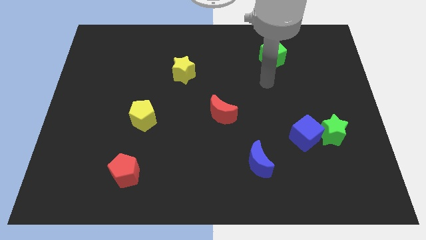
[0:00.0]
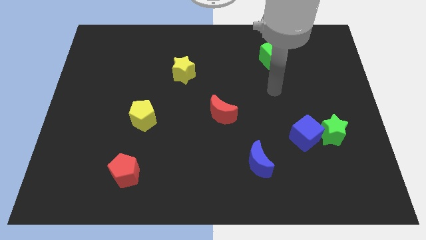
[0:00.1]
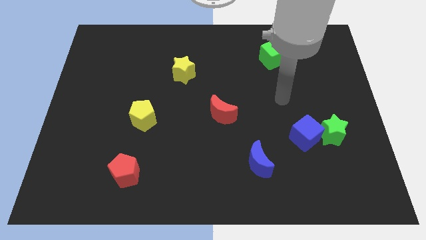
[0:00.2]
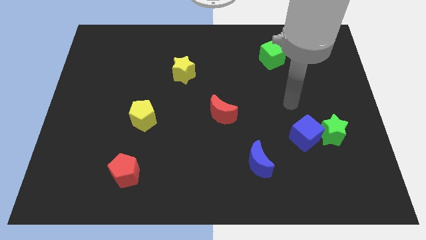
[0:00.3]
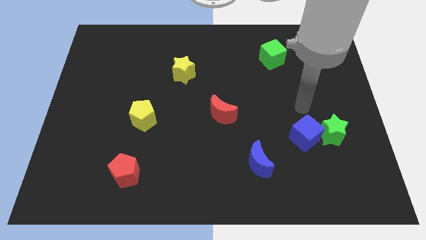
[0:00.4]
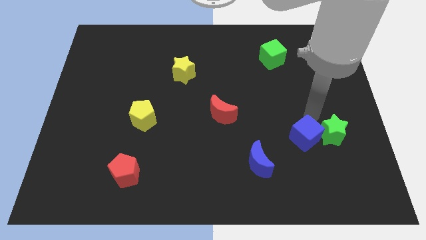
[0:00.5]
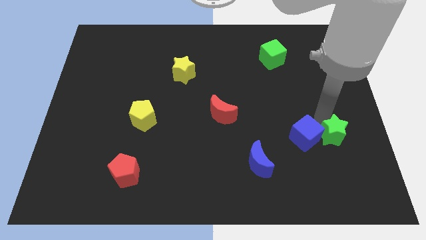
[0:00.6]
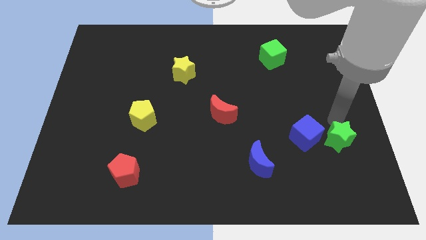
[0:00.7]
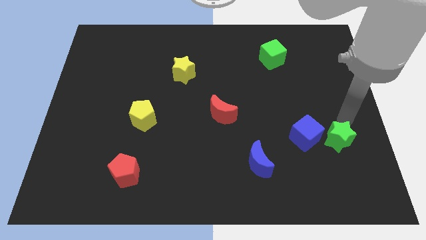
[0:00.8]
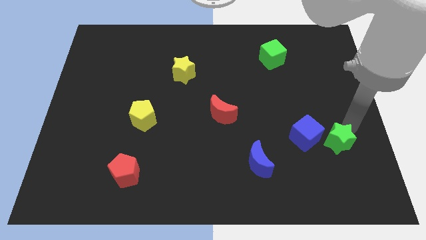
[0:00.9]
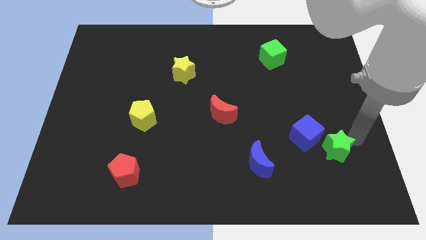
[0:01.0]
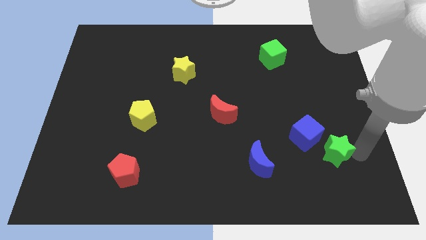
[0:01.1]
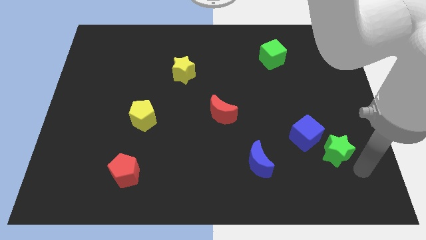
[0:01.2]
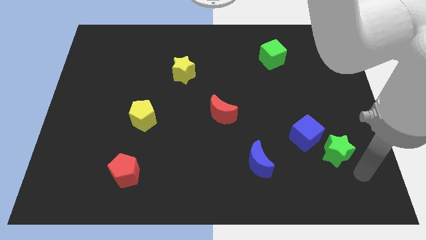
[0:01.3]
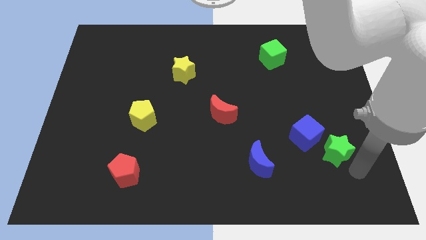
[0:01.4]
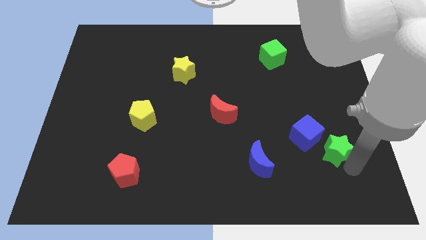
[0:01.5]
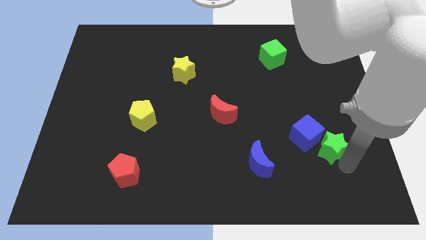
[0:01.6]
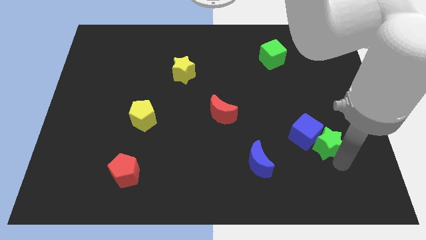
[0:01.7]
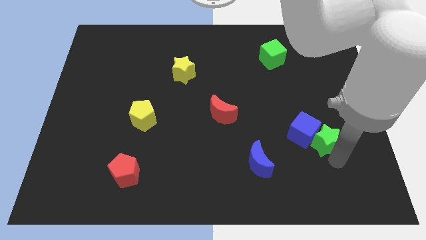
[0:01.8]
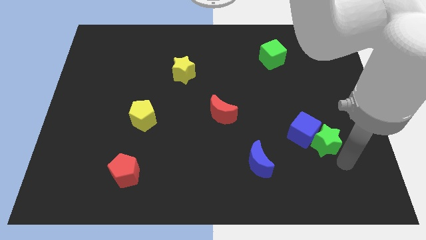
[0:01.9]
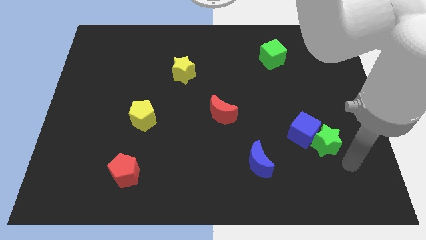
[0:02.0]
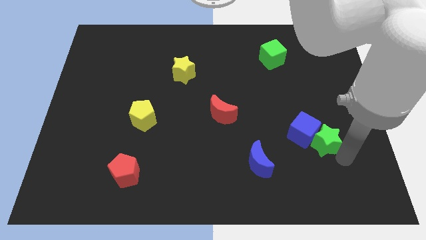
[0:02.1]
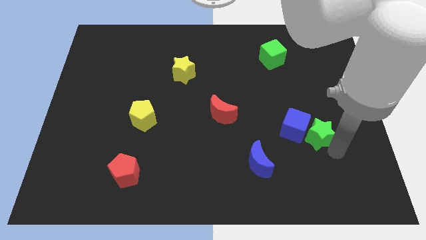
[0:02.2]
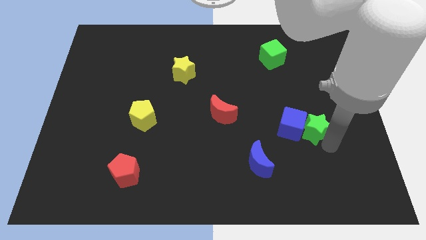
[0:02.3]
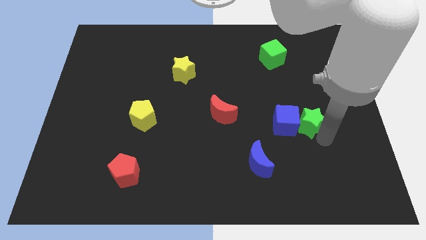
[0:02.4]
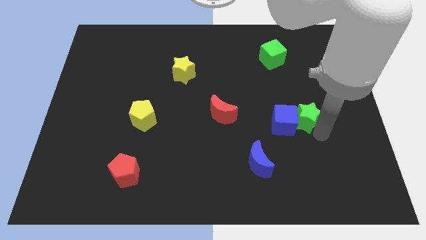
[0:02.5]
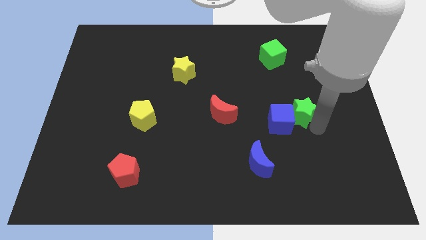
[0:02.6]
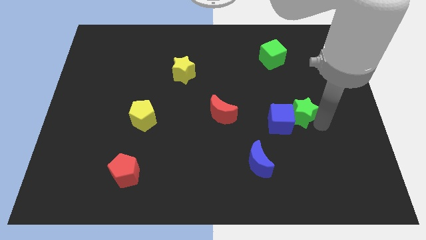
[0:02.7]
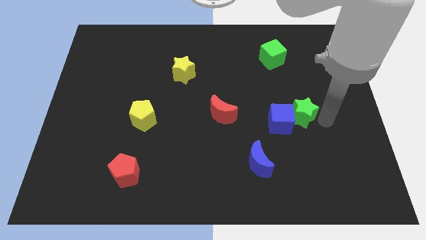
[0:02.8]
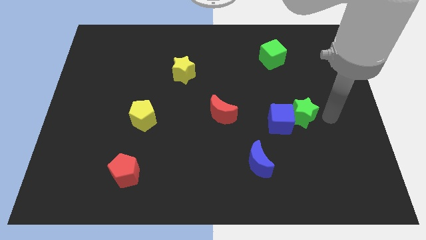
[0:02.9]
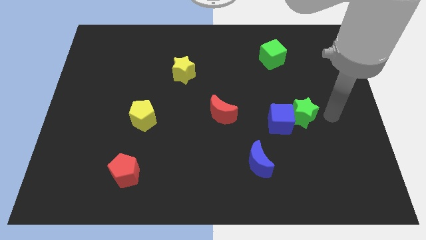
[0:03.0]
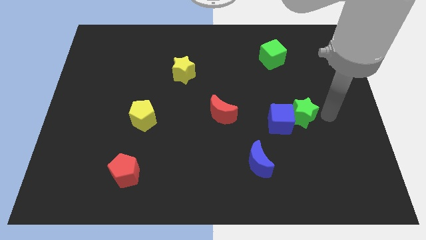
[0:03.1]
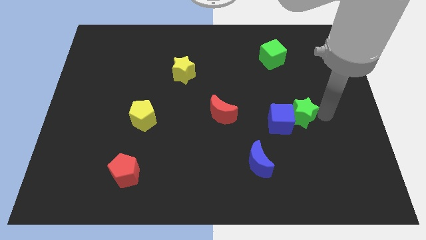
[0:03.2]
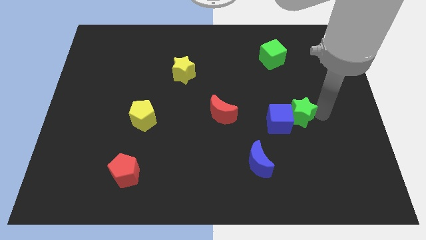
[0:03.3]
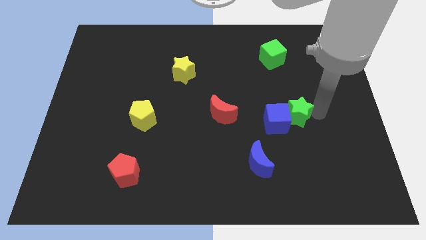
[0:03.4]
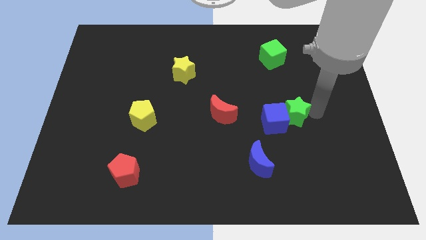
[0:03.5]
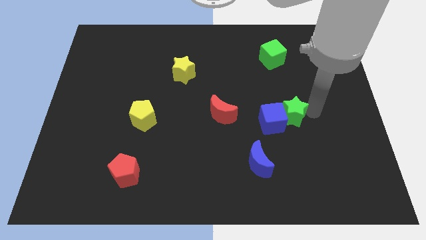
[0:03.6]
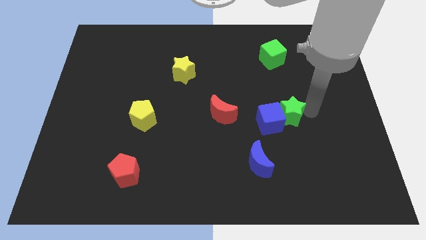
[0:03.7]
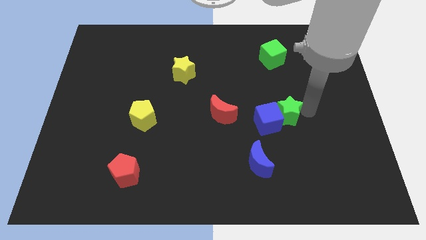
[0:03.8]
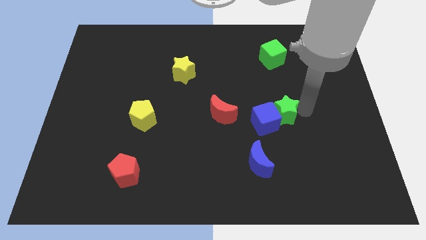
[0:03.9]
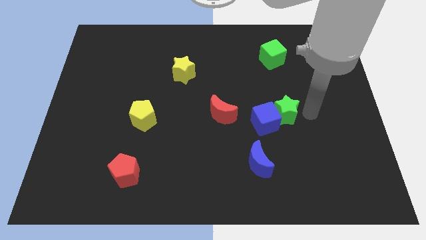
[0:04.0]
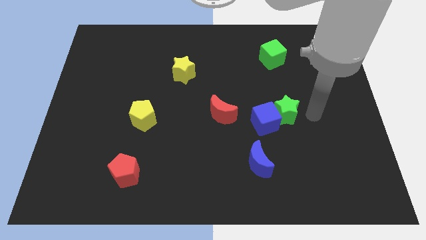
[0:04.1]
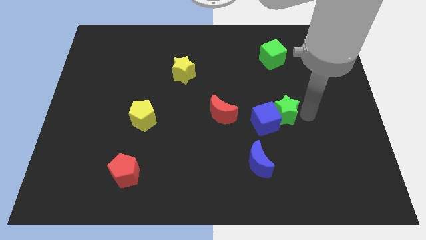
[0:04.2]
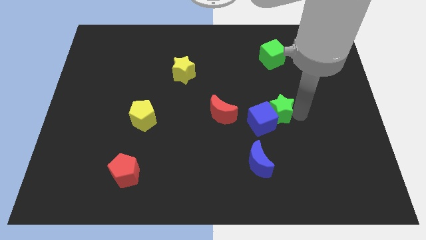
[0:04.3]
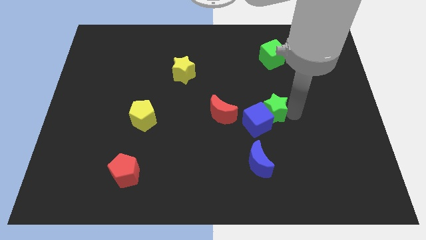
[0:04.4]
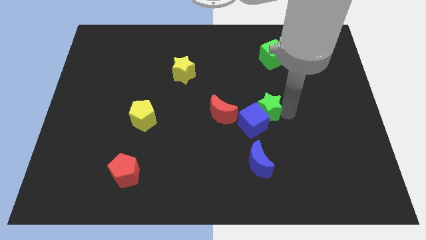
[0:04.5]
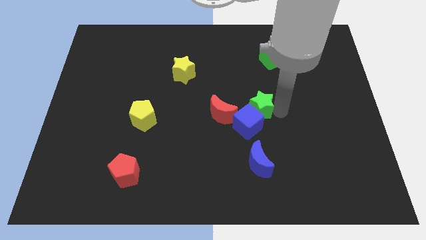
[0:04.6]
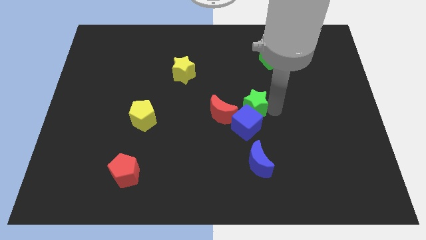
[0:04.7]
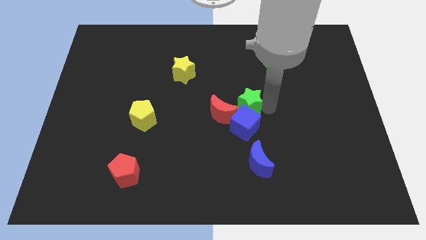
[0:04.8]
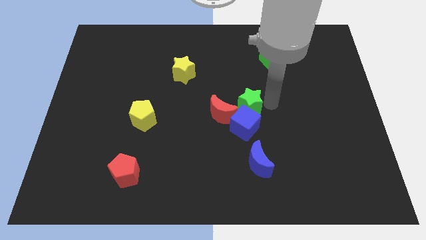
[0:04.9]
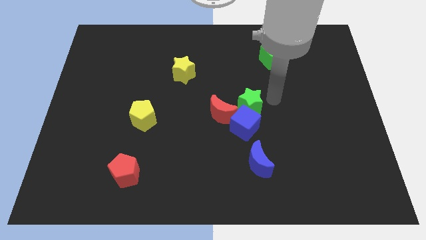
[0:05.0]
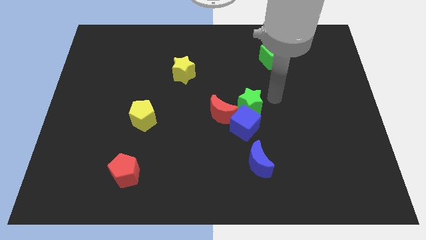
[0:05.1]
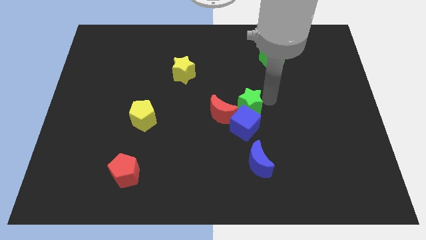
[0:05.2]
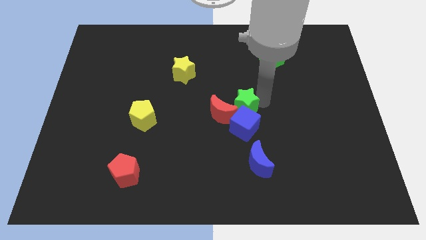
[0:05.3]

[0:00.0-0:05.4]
move the green star close to the red moon

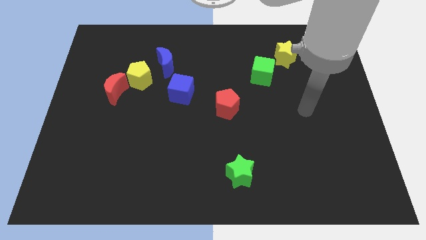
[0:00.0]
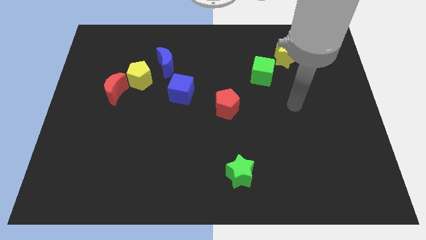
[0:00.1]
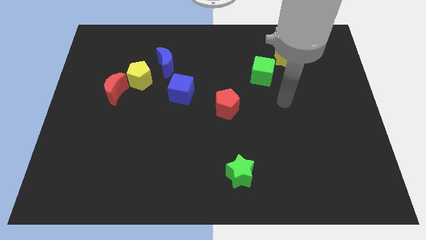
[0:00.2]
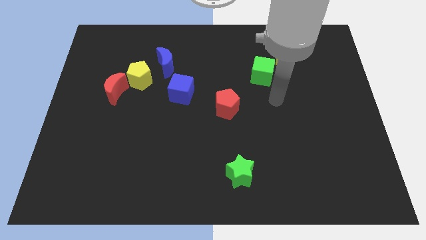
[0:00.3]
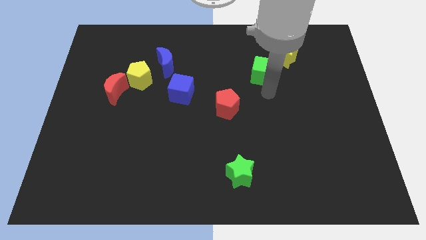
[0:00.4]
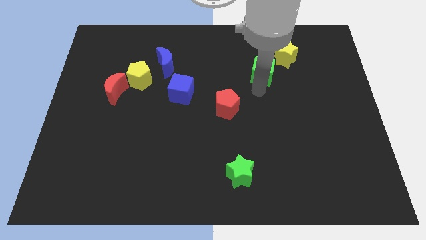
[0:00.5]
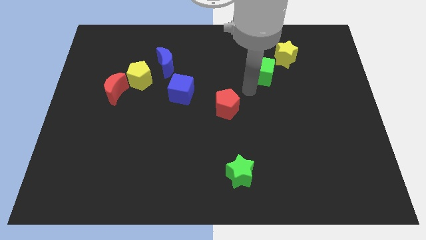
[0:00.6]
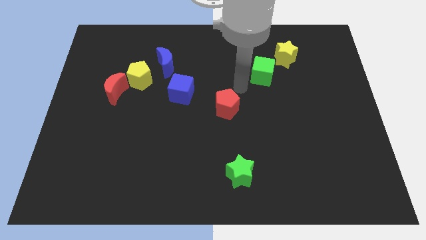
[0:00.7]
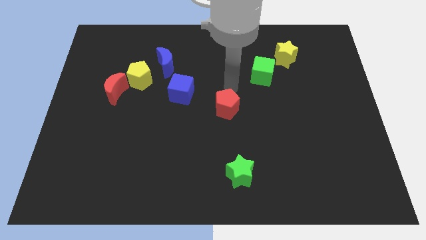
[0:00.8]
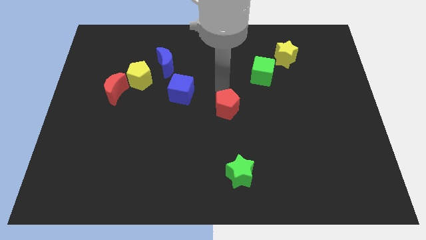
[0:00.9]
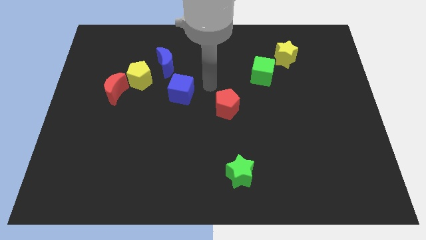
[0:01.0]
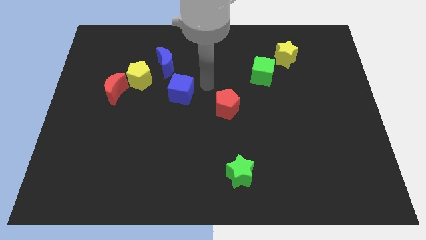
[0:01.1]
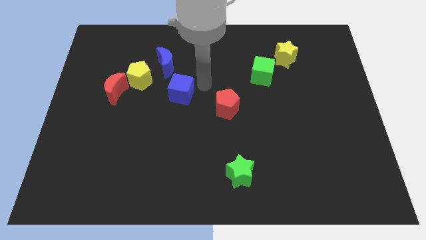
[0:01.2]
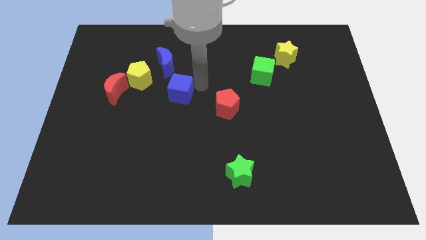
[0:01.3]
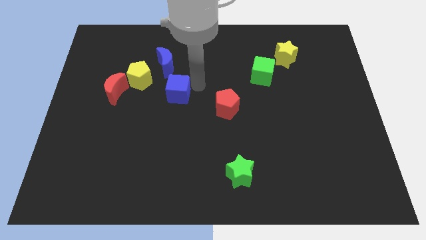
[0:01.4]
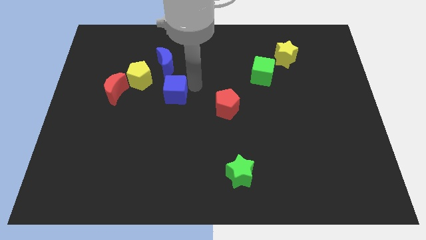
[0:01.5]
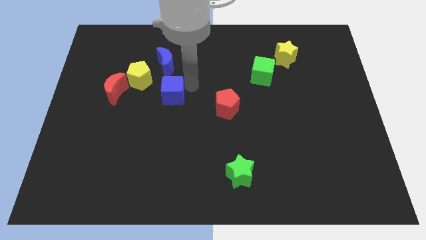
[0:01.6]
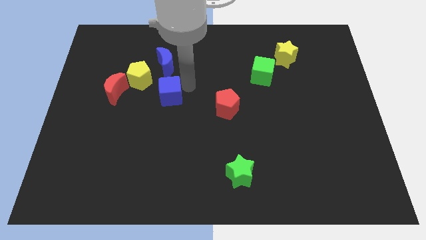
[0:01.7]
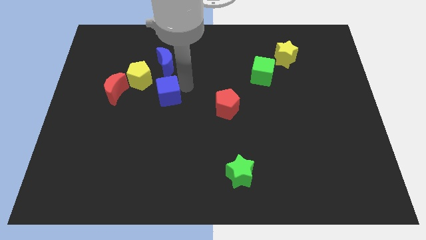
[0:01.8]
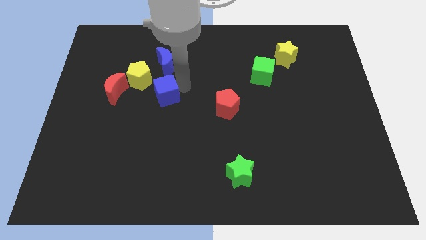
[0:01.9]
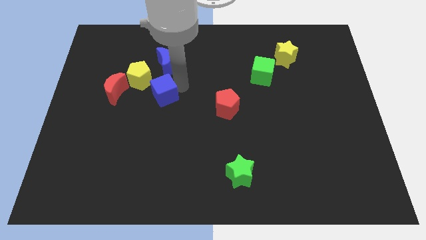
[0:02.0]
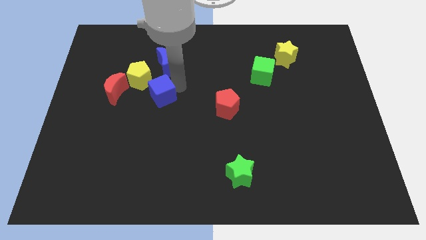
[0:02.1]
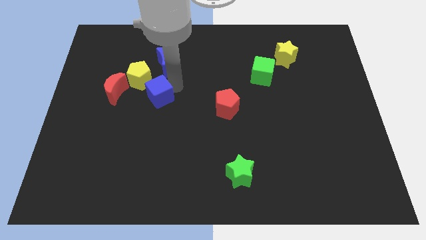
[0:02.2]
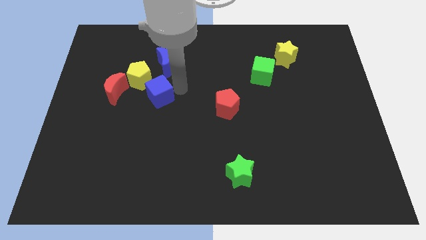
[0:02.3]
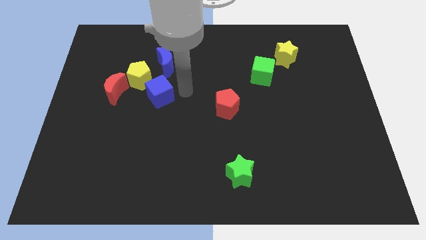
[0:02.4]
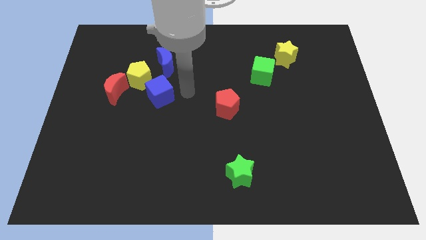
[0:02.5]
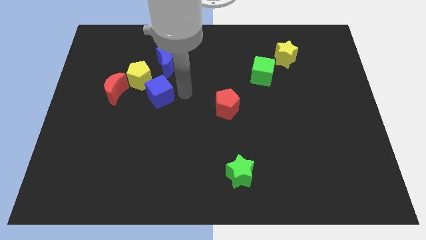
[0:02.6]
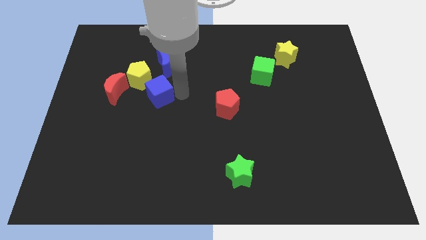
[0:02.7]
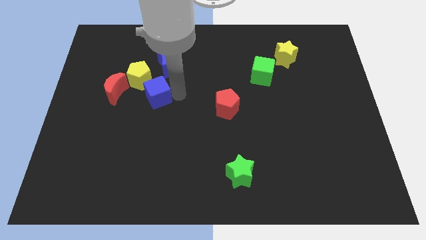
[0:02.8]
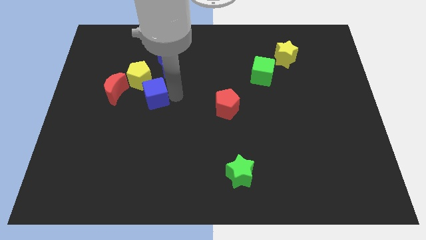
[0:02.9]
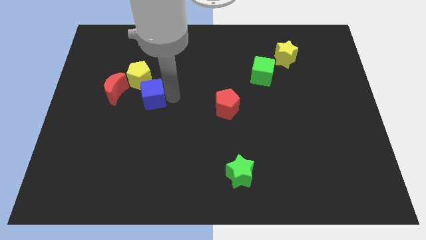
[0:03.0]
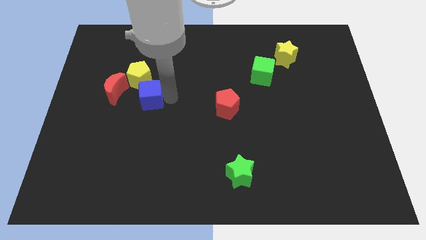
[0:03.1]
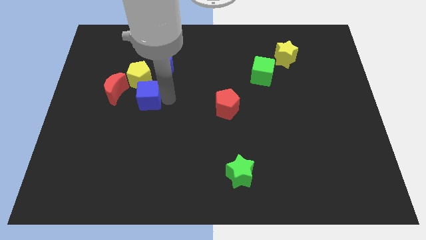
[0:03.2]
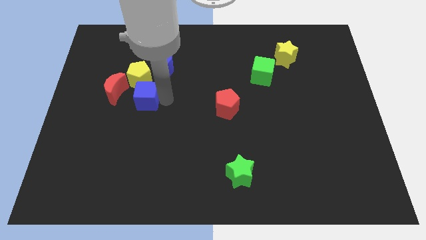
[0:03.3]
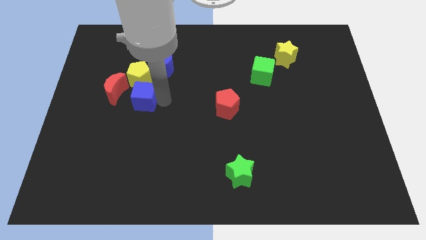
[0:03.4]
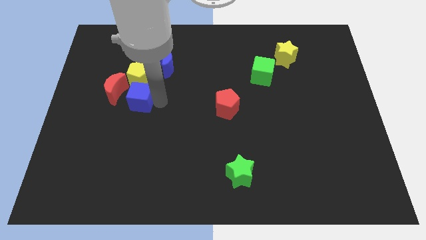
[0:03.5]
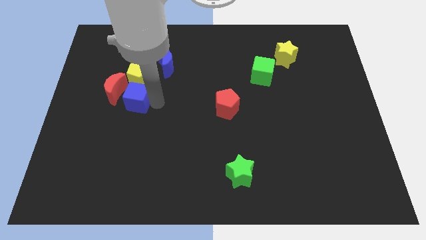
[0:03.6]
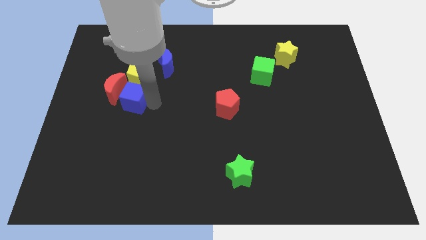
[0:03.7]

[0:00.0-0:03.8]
move the blue cube to the red moon
